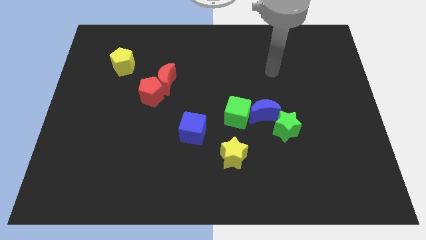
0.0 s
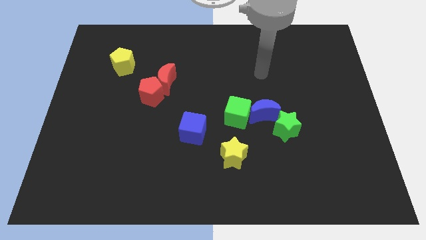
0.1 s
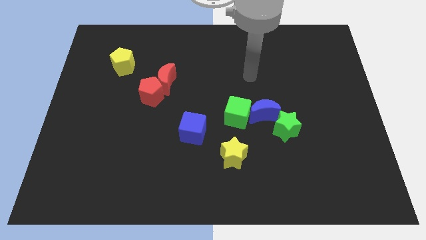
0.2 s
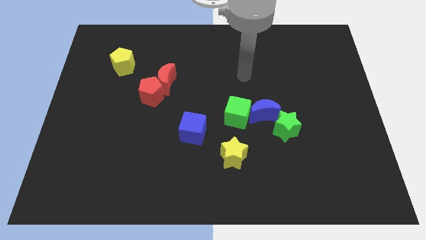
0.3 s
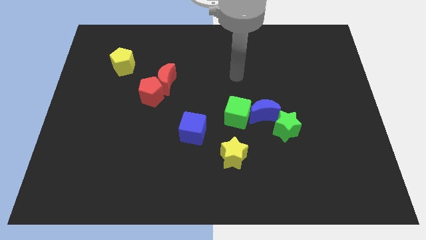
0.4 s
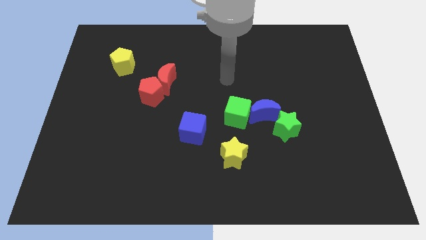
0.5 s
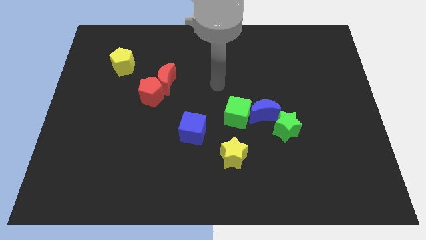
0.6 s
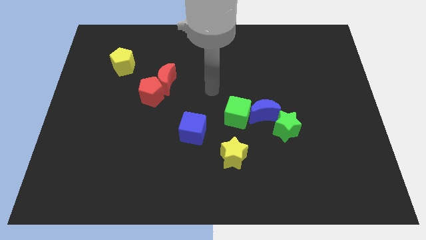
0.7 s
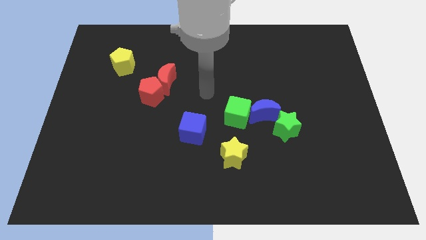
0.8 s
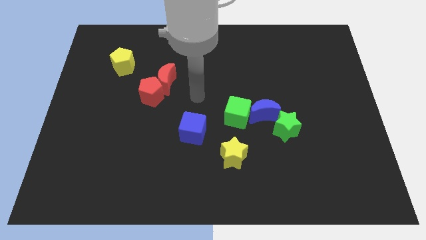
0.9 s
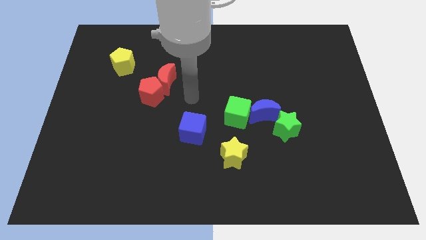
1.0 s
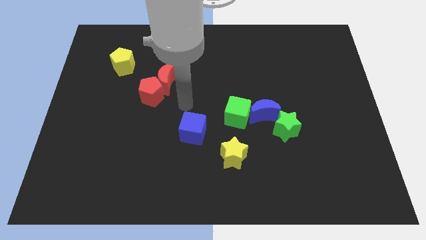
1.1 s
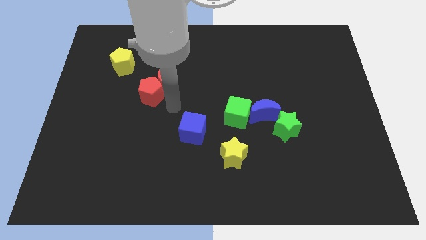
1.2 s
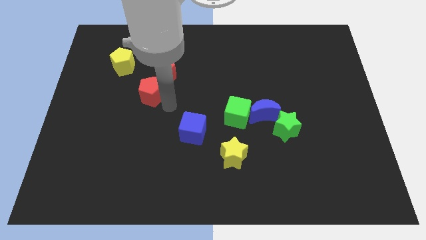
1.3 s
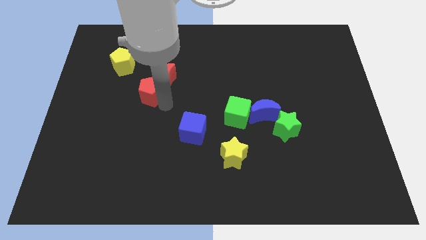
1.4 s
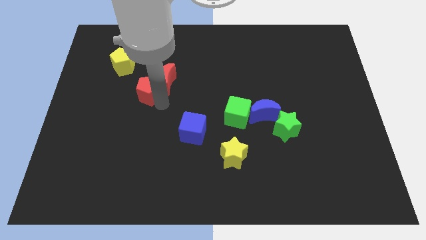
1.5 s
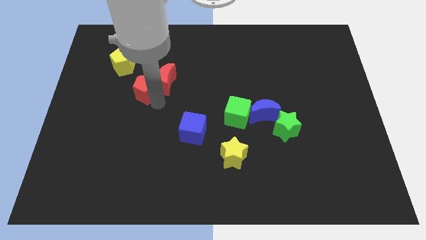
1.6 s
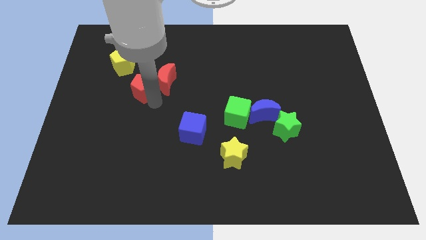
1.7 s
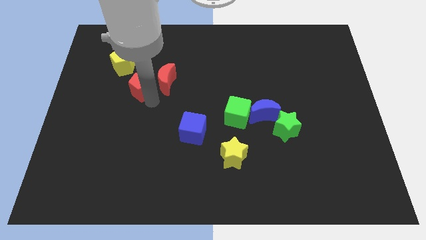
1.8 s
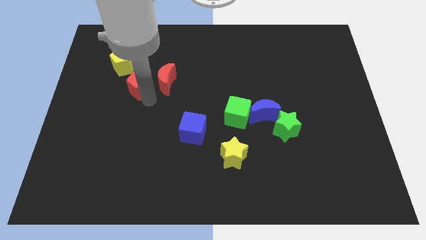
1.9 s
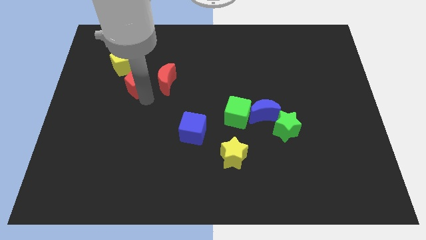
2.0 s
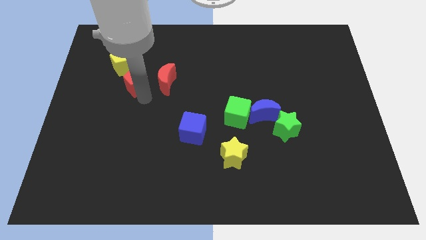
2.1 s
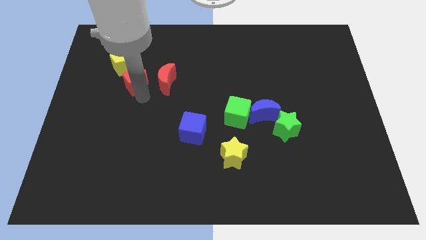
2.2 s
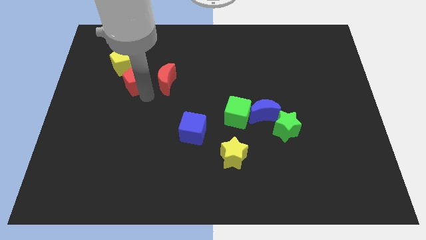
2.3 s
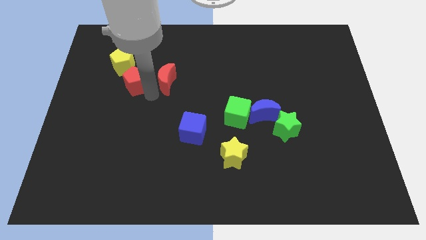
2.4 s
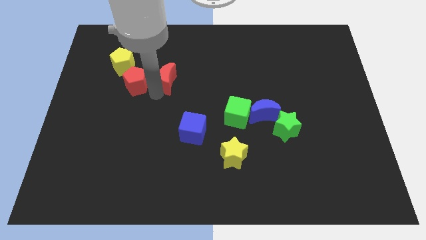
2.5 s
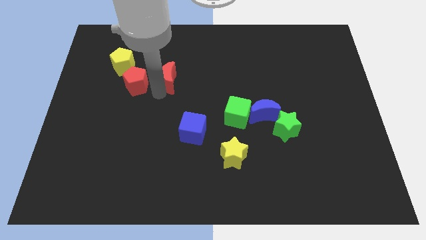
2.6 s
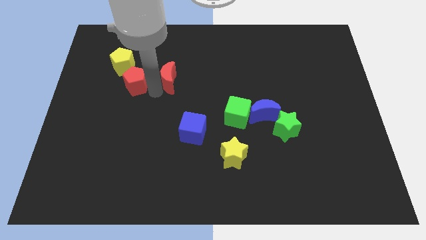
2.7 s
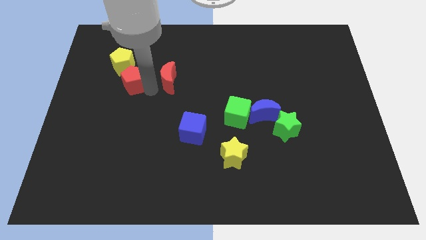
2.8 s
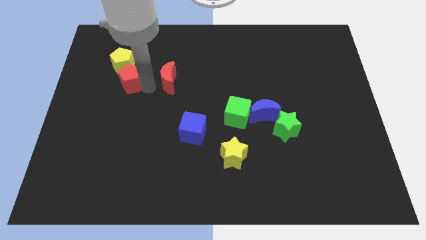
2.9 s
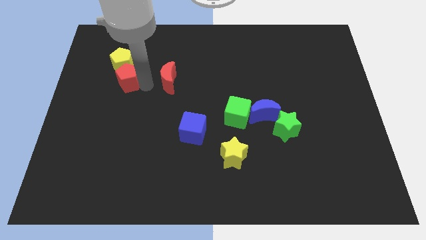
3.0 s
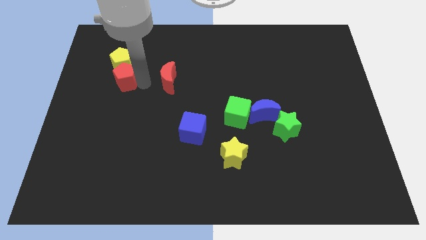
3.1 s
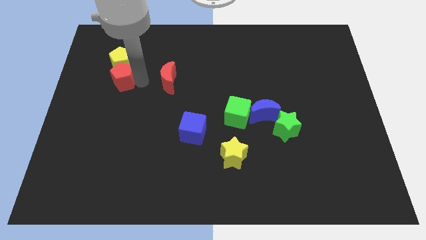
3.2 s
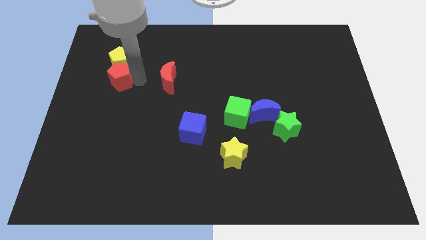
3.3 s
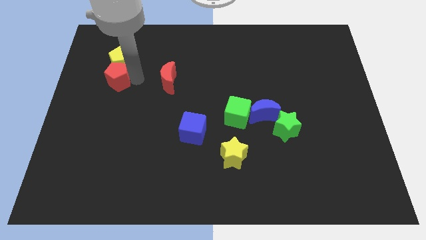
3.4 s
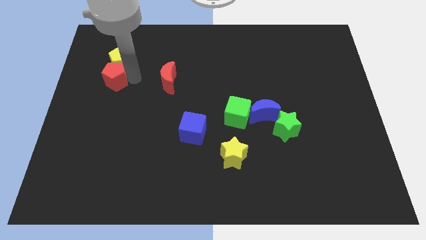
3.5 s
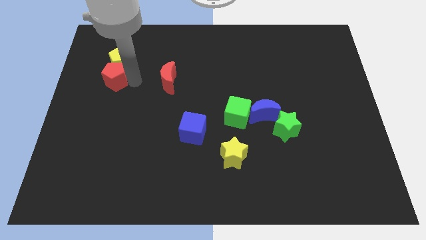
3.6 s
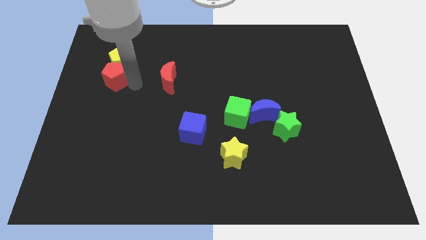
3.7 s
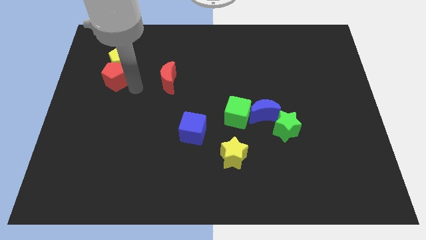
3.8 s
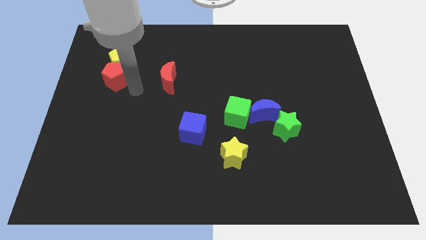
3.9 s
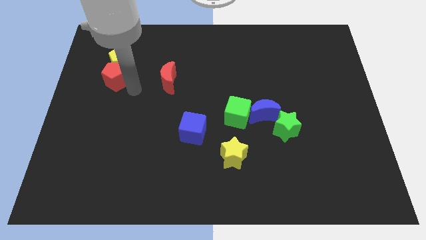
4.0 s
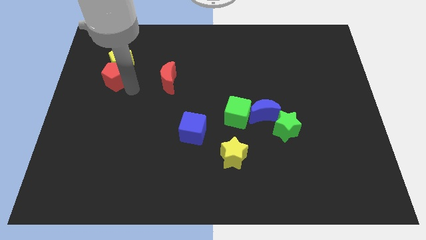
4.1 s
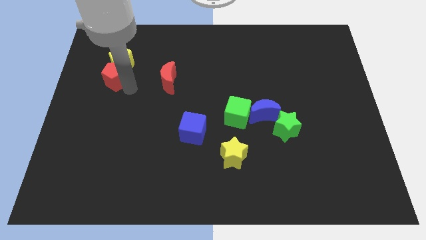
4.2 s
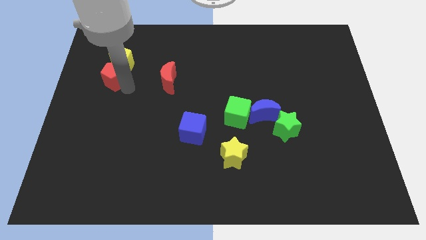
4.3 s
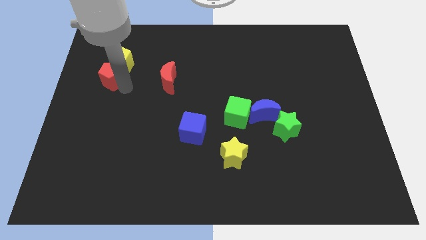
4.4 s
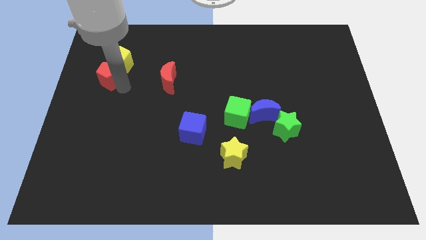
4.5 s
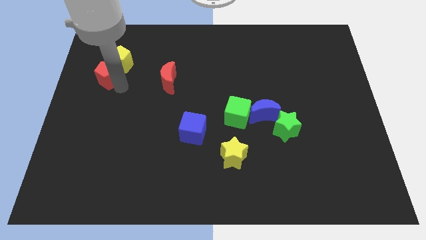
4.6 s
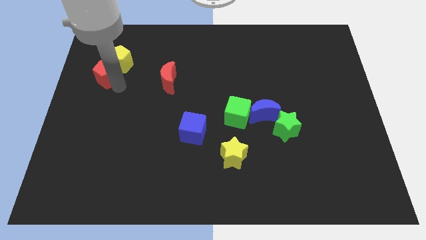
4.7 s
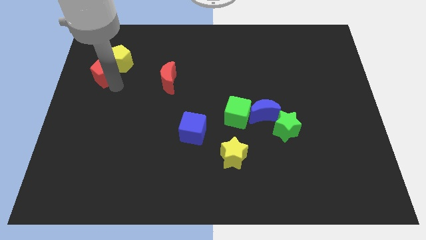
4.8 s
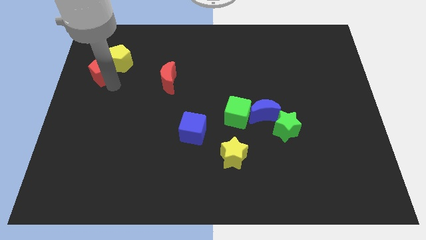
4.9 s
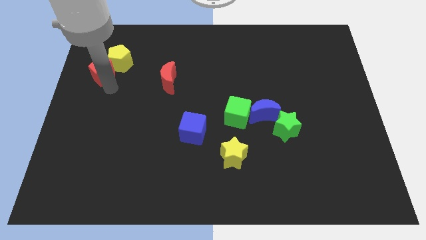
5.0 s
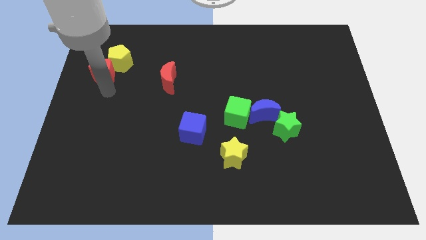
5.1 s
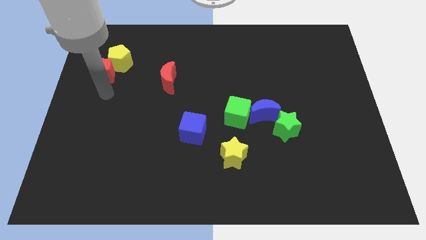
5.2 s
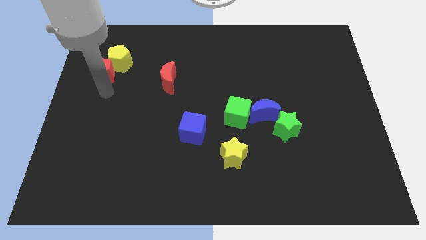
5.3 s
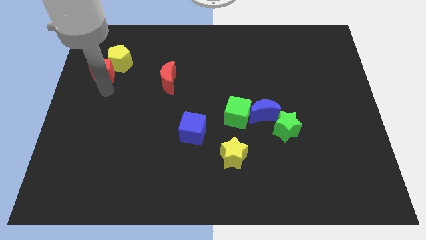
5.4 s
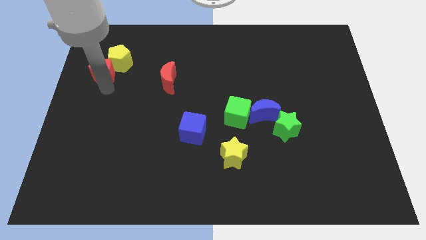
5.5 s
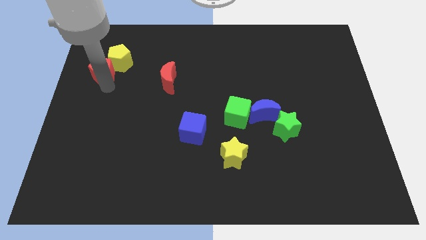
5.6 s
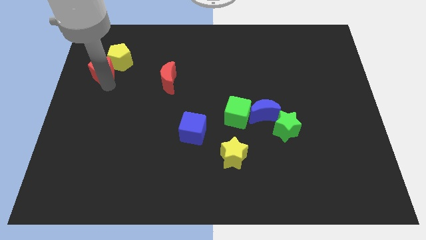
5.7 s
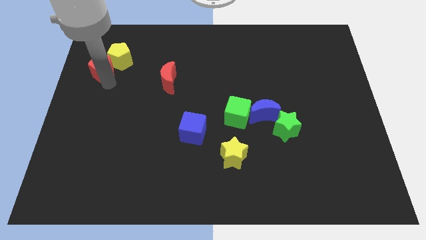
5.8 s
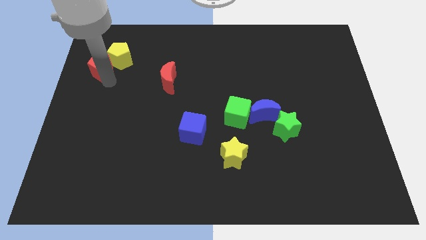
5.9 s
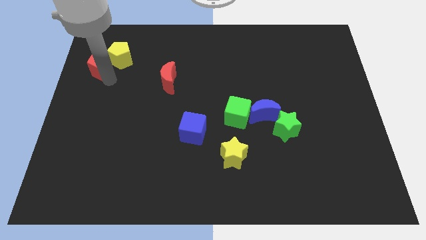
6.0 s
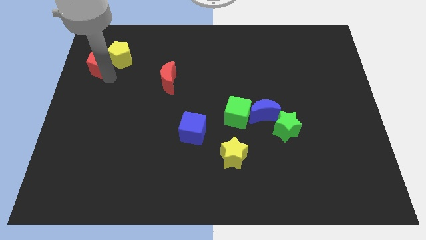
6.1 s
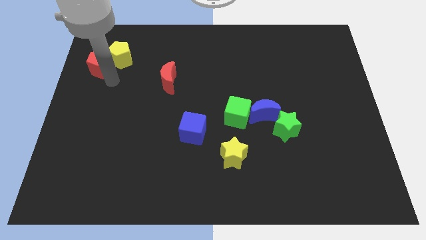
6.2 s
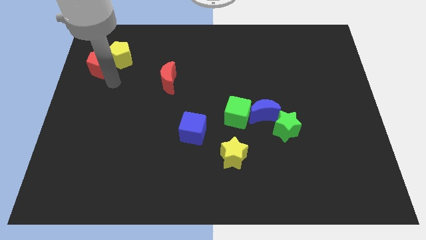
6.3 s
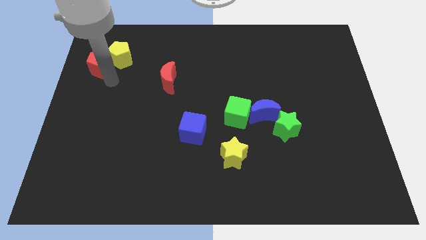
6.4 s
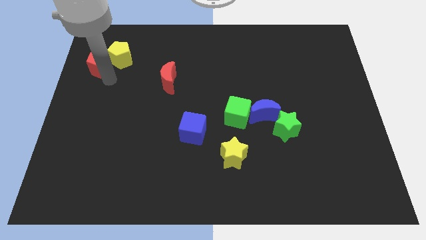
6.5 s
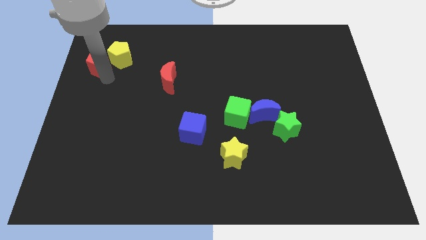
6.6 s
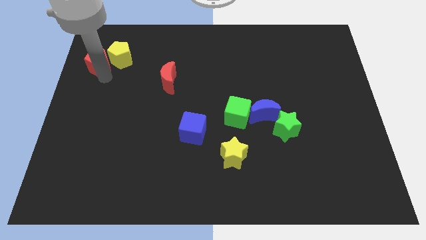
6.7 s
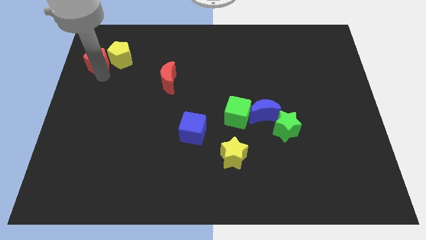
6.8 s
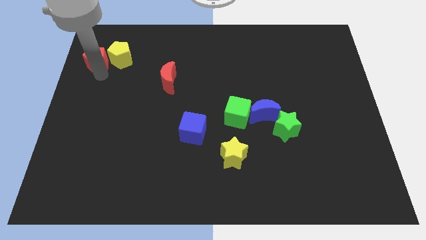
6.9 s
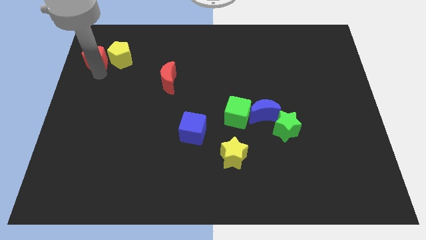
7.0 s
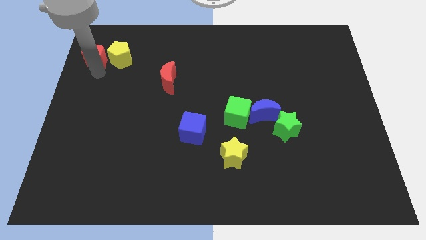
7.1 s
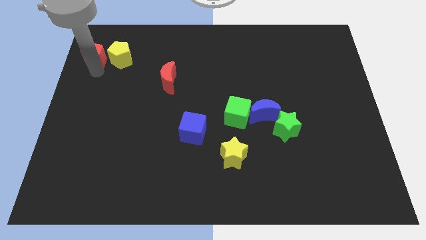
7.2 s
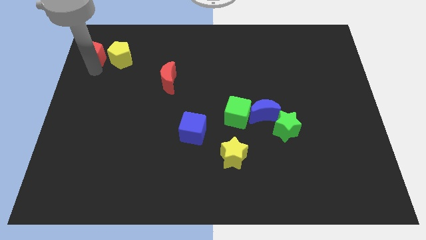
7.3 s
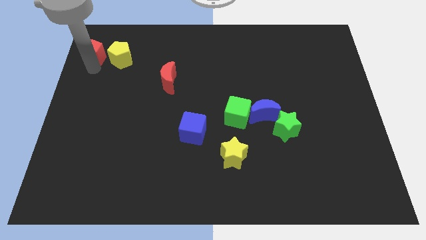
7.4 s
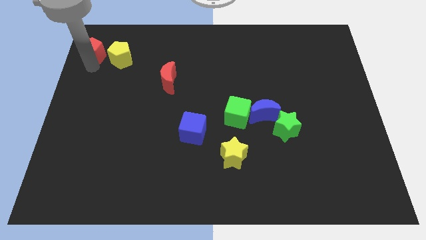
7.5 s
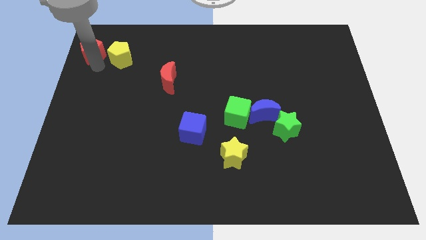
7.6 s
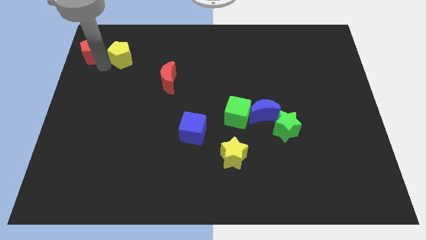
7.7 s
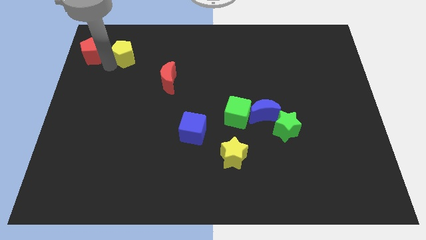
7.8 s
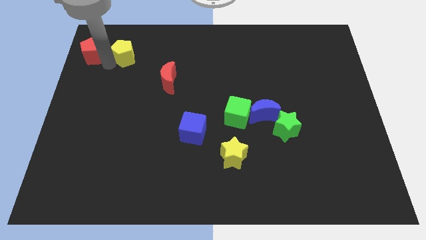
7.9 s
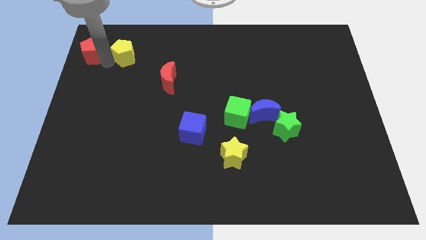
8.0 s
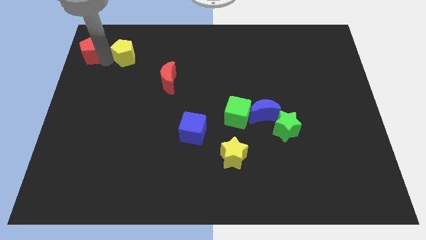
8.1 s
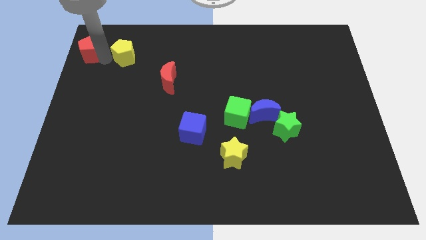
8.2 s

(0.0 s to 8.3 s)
push the red pentagon to the top left
